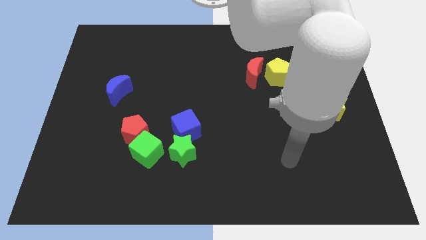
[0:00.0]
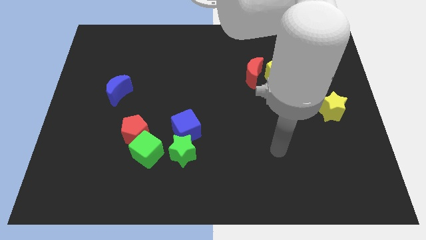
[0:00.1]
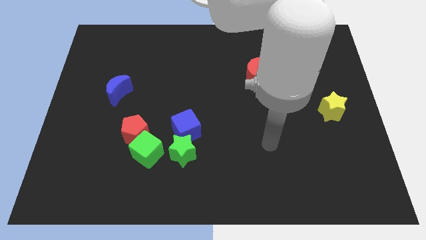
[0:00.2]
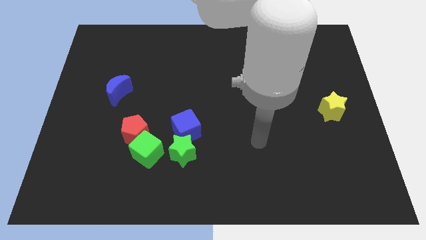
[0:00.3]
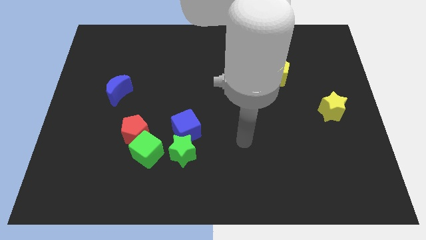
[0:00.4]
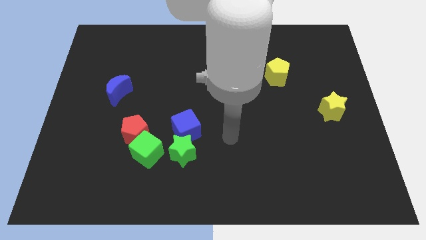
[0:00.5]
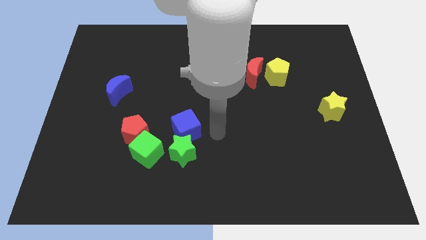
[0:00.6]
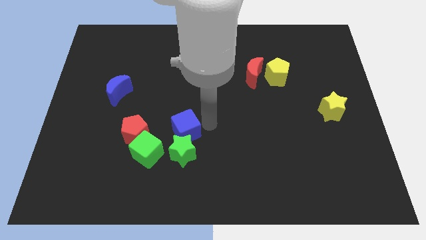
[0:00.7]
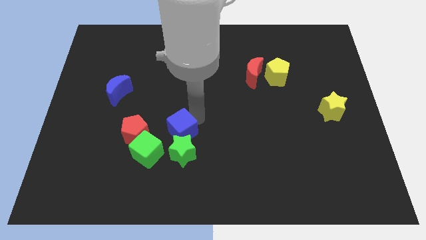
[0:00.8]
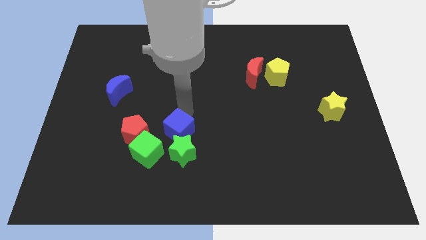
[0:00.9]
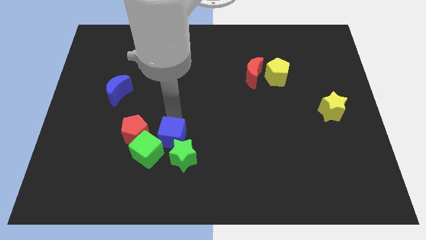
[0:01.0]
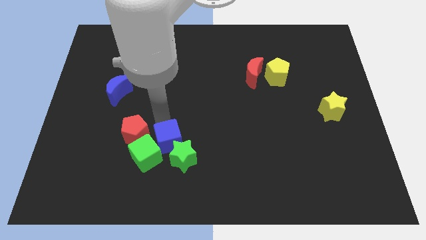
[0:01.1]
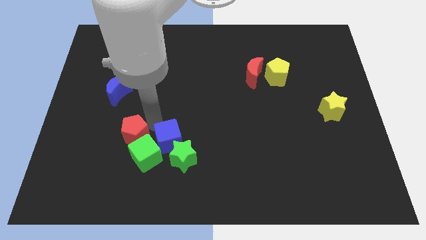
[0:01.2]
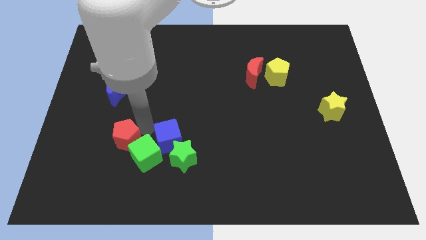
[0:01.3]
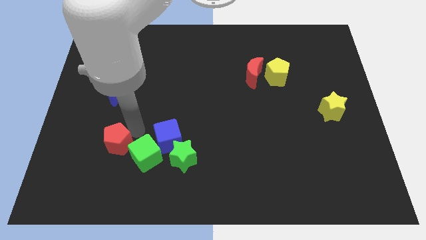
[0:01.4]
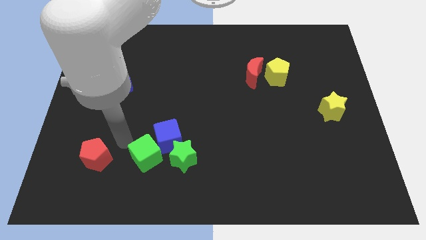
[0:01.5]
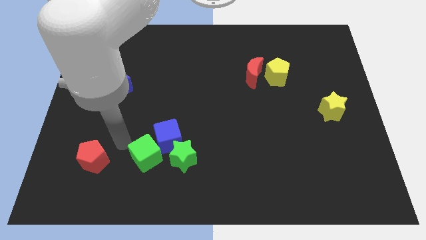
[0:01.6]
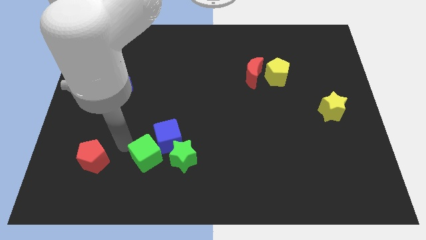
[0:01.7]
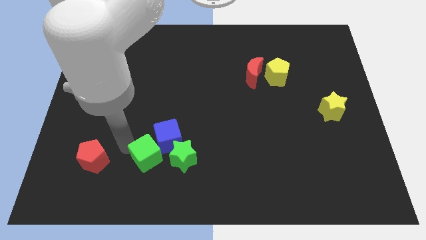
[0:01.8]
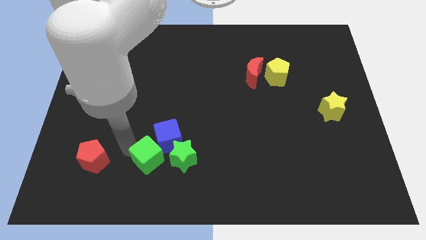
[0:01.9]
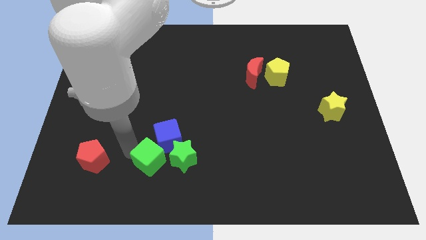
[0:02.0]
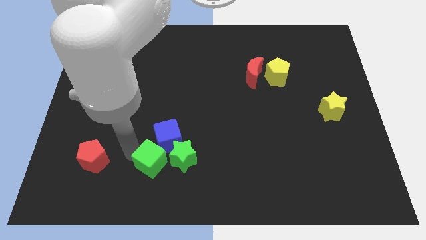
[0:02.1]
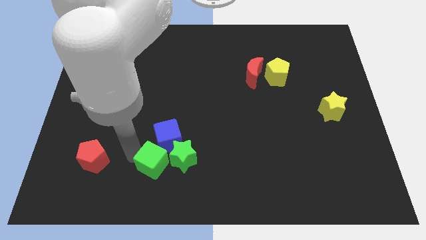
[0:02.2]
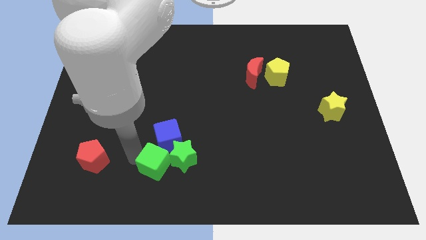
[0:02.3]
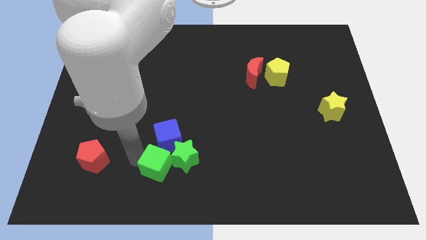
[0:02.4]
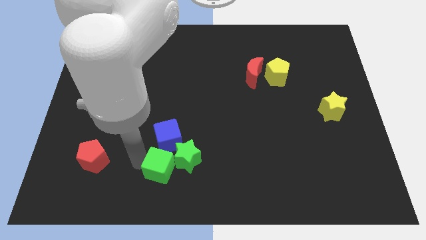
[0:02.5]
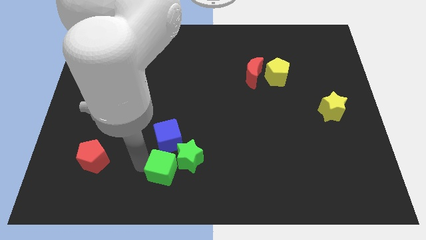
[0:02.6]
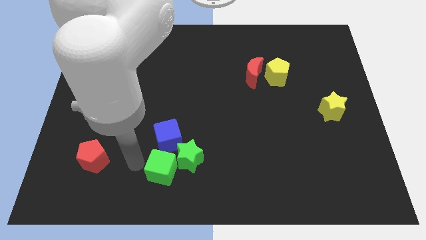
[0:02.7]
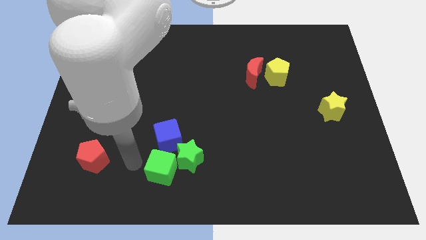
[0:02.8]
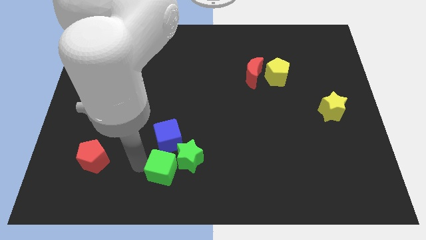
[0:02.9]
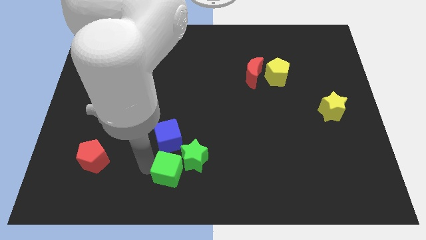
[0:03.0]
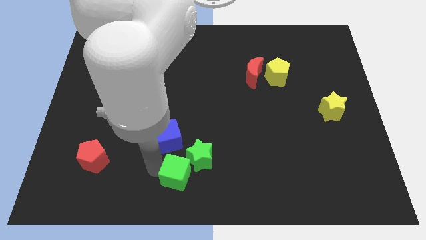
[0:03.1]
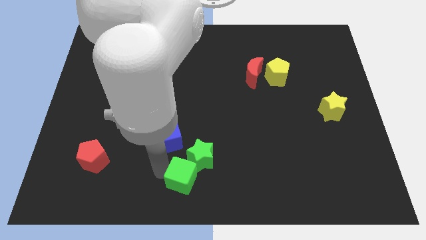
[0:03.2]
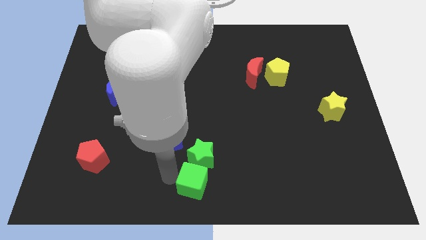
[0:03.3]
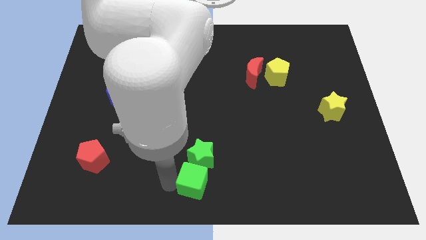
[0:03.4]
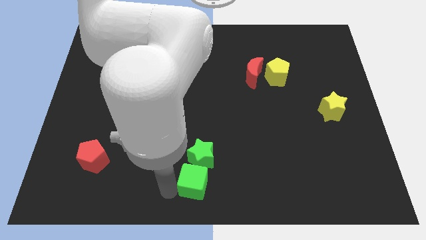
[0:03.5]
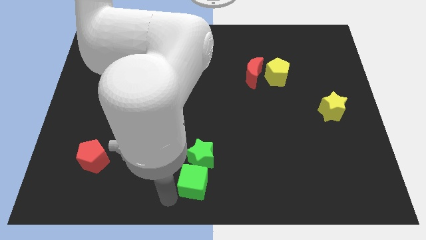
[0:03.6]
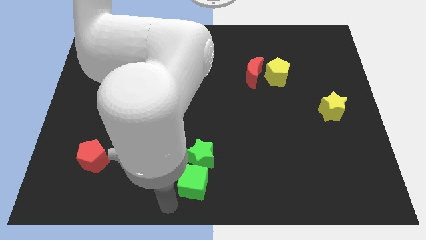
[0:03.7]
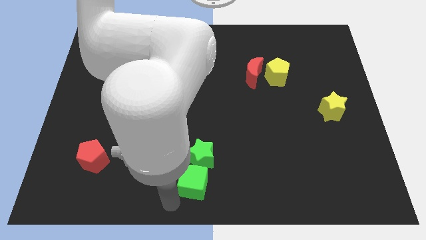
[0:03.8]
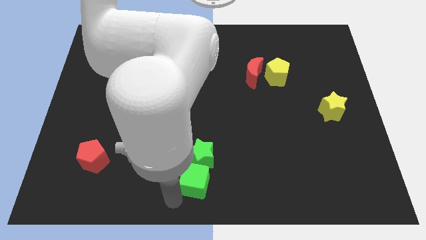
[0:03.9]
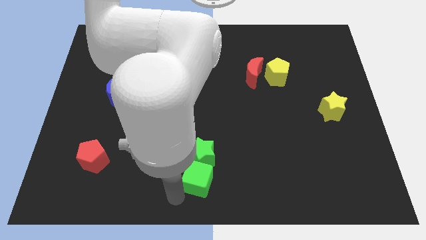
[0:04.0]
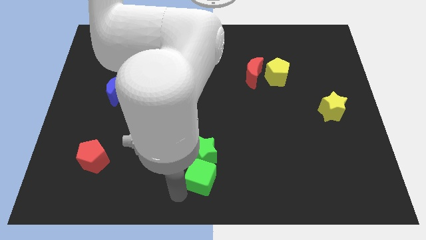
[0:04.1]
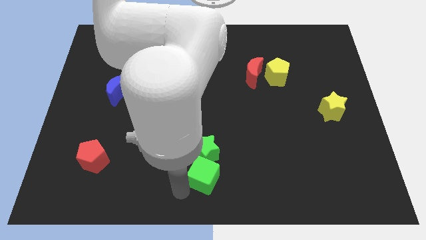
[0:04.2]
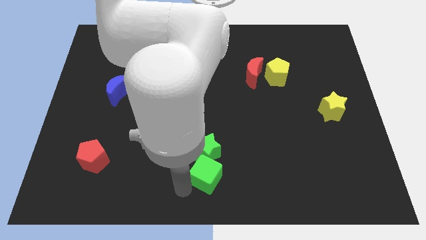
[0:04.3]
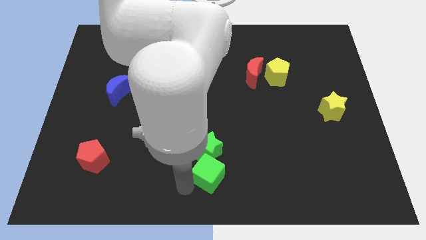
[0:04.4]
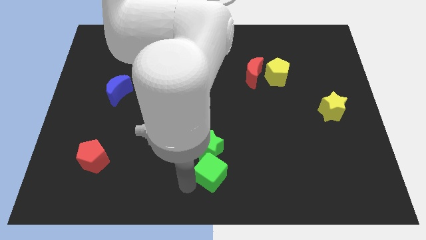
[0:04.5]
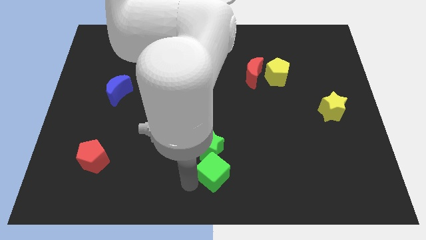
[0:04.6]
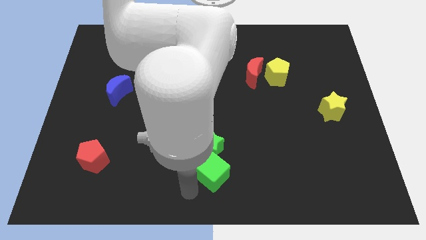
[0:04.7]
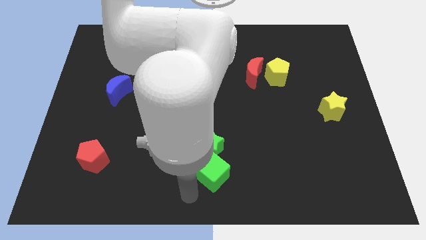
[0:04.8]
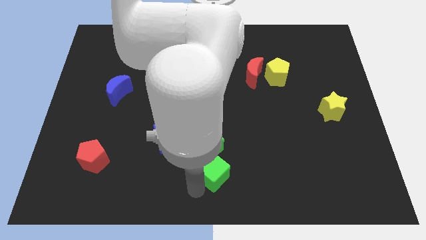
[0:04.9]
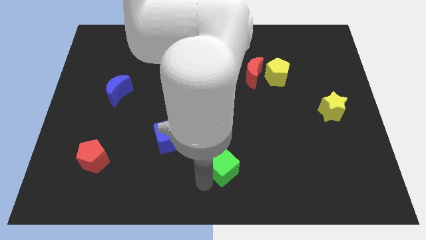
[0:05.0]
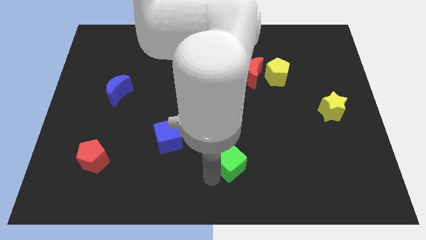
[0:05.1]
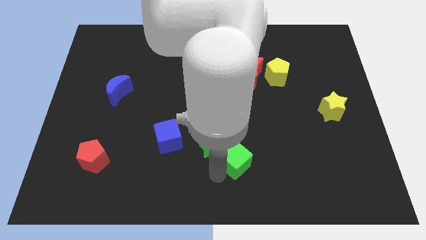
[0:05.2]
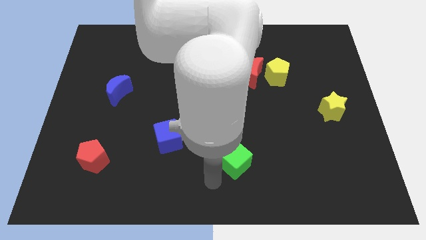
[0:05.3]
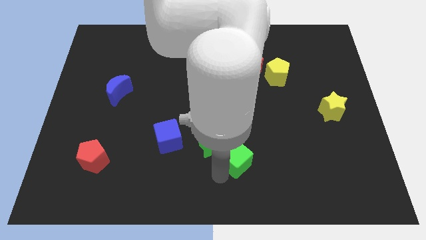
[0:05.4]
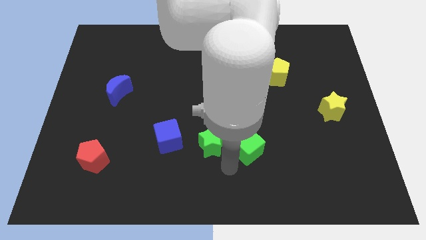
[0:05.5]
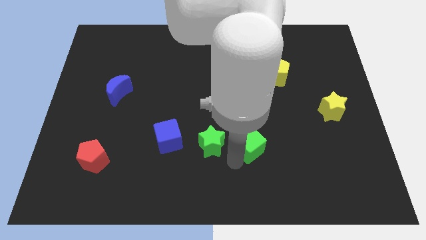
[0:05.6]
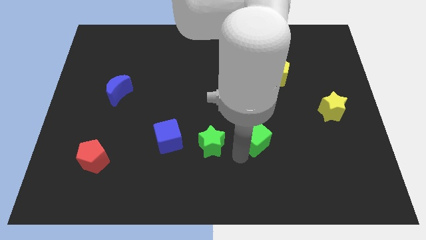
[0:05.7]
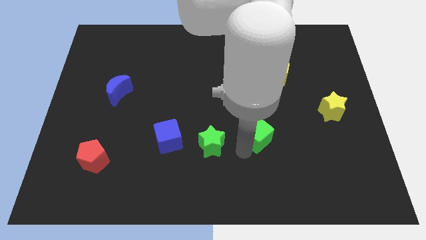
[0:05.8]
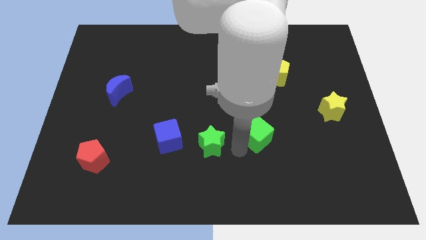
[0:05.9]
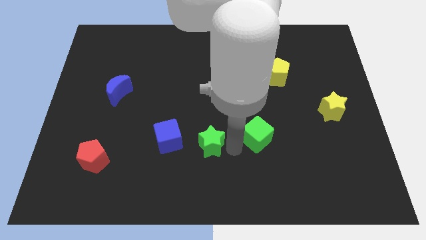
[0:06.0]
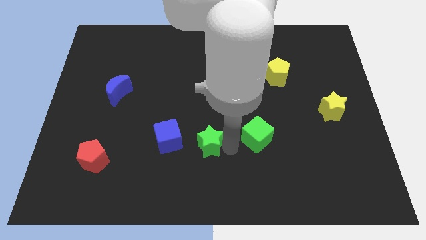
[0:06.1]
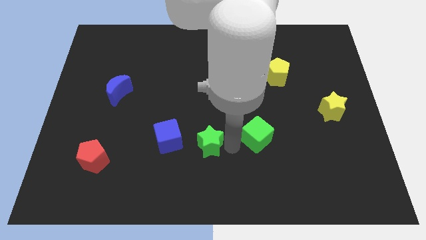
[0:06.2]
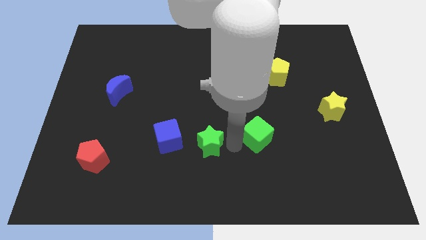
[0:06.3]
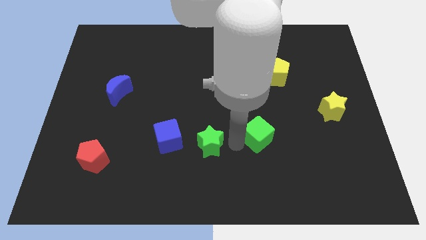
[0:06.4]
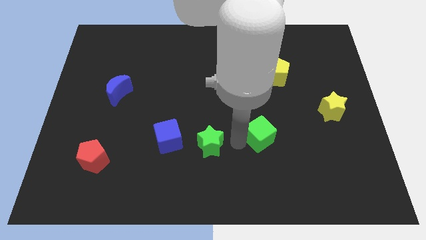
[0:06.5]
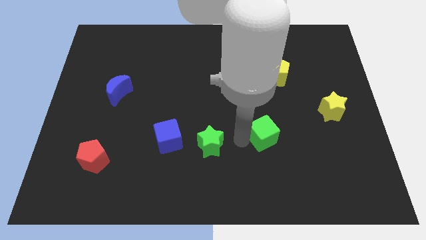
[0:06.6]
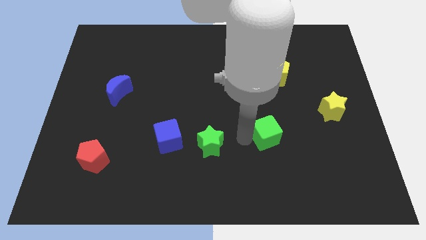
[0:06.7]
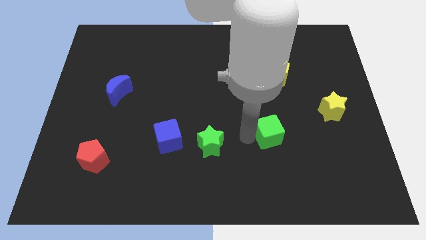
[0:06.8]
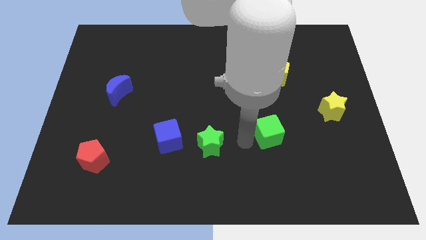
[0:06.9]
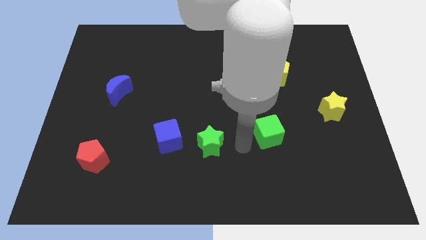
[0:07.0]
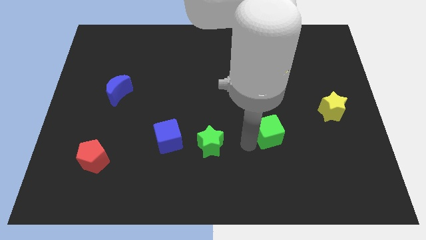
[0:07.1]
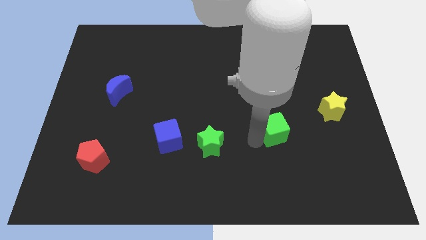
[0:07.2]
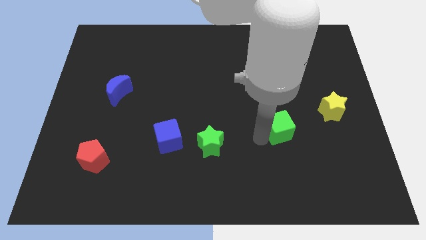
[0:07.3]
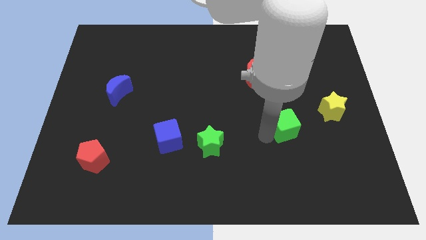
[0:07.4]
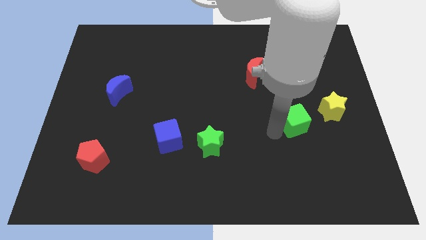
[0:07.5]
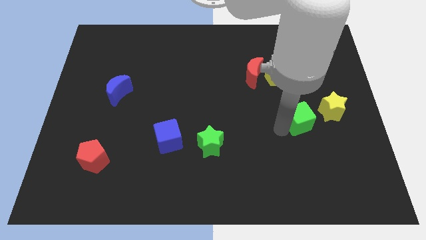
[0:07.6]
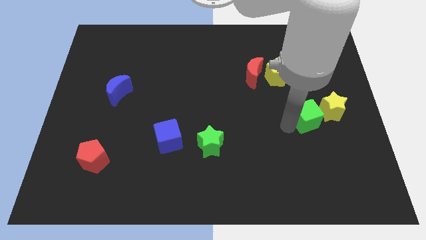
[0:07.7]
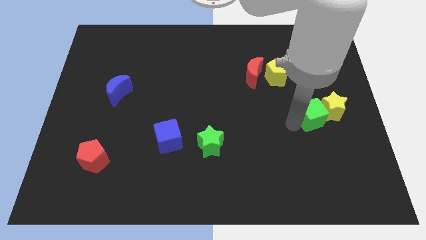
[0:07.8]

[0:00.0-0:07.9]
push the green cube towards the yellow star
